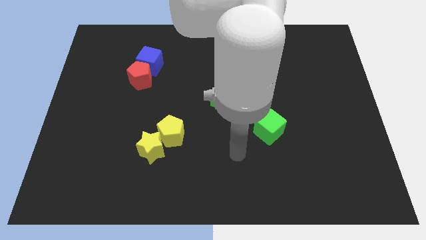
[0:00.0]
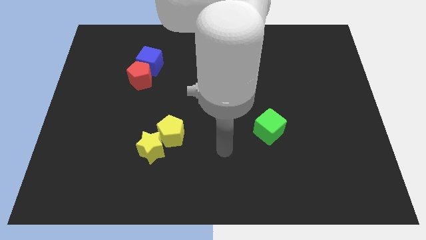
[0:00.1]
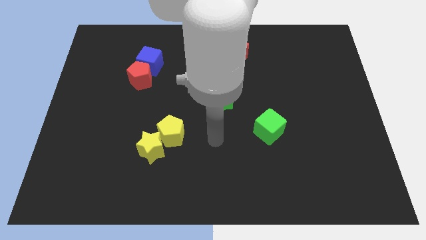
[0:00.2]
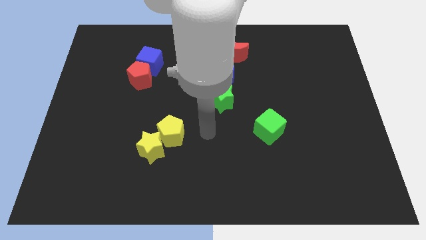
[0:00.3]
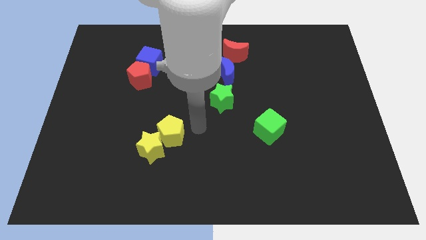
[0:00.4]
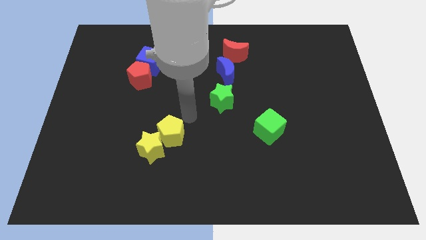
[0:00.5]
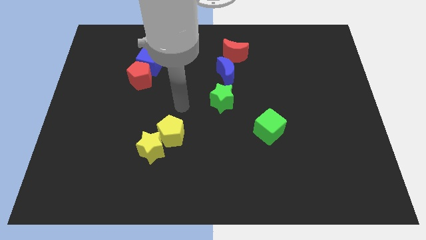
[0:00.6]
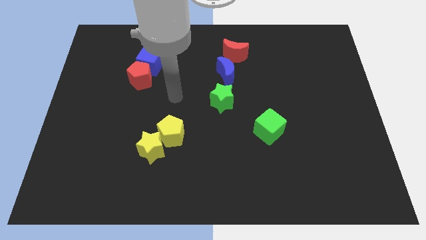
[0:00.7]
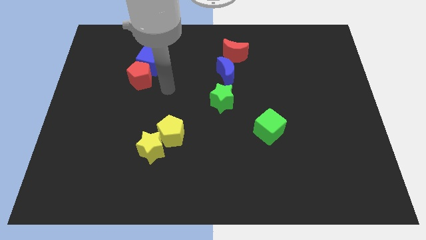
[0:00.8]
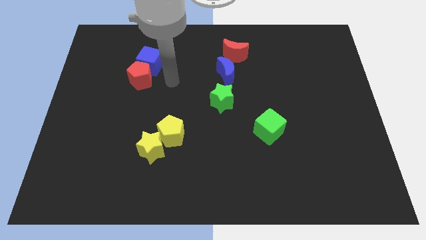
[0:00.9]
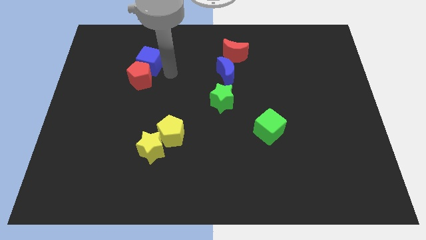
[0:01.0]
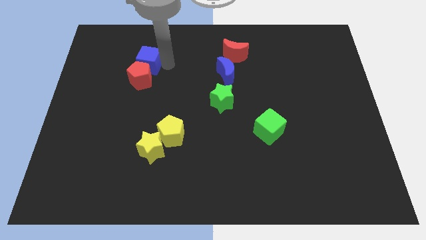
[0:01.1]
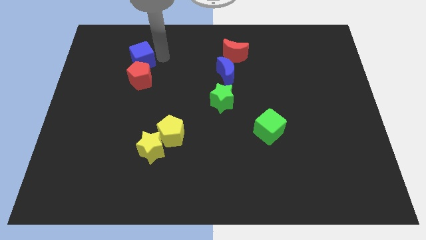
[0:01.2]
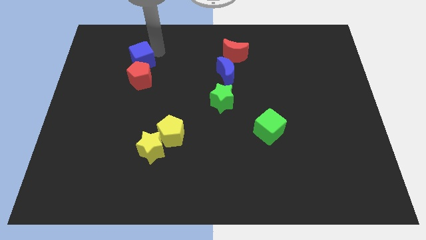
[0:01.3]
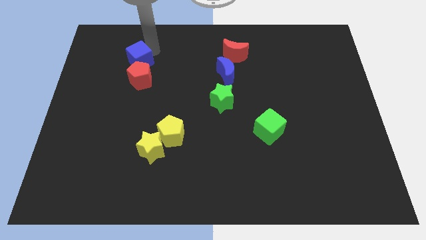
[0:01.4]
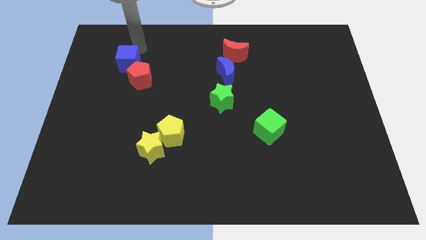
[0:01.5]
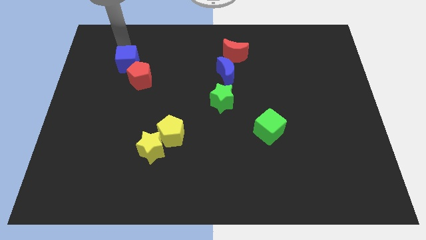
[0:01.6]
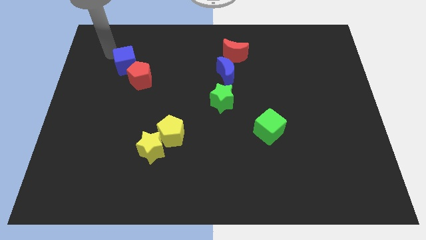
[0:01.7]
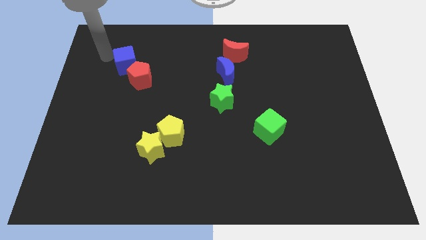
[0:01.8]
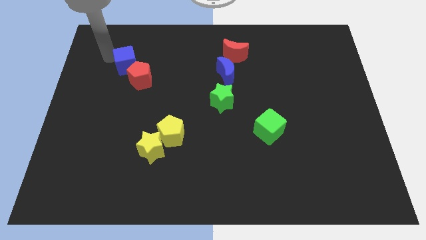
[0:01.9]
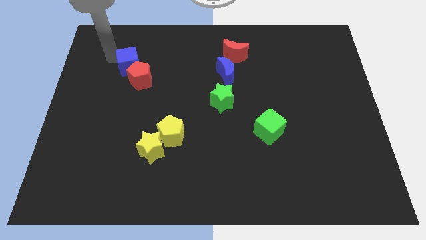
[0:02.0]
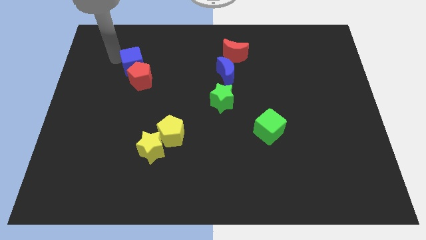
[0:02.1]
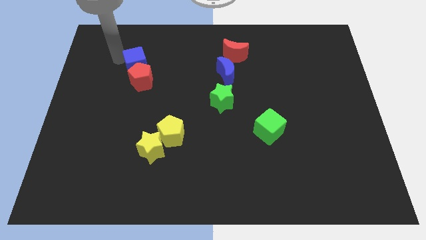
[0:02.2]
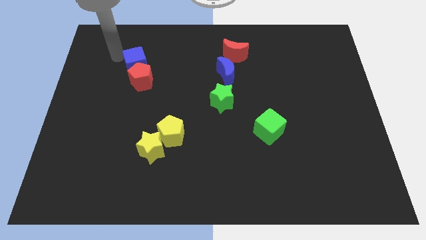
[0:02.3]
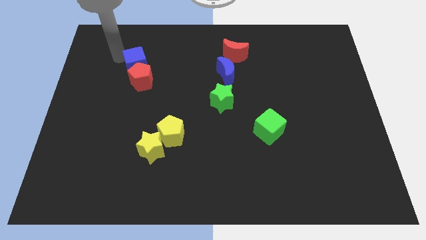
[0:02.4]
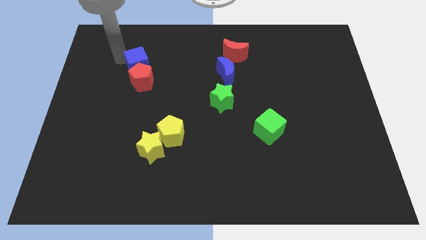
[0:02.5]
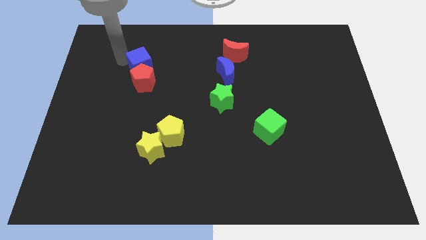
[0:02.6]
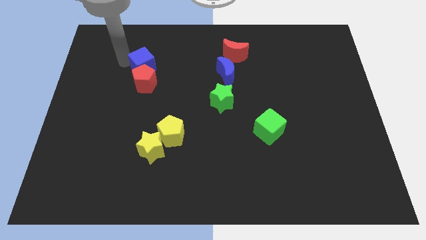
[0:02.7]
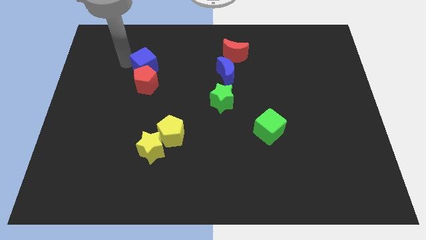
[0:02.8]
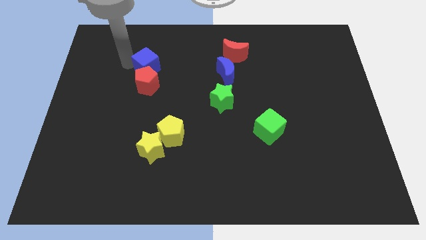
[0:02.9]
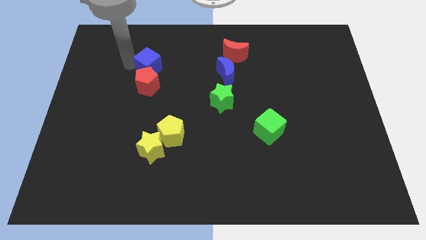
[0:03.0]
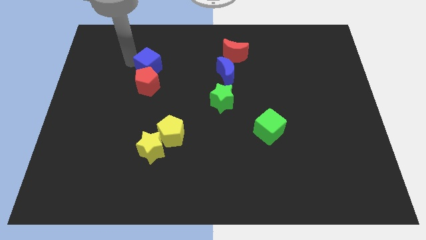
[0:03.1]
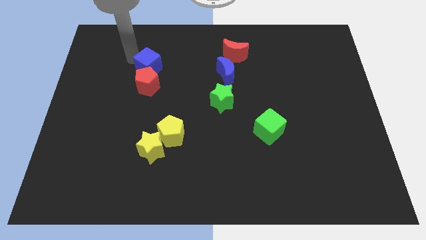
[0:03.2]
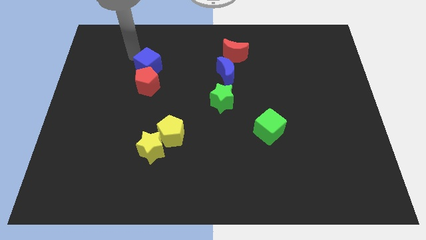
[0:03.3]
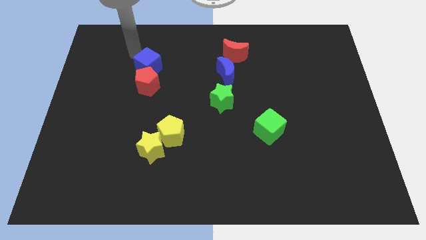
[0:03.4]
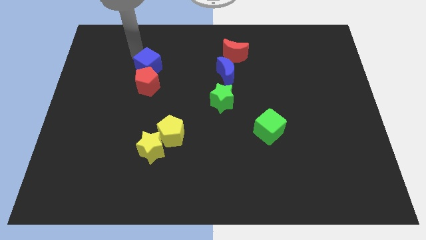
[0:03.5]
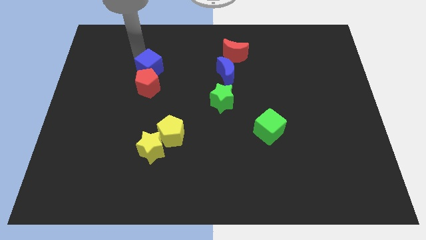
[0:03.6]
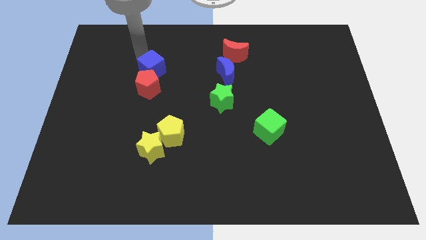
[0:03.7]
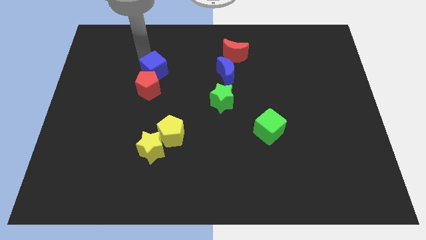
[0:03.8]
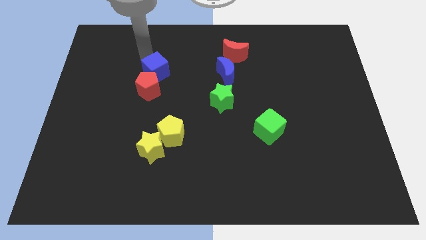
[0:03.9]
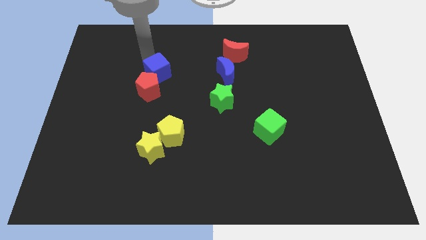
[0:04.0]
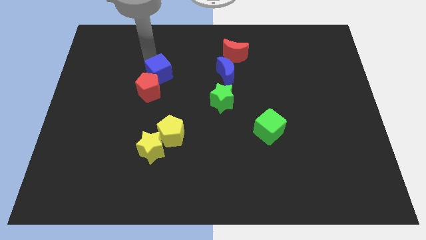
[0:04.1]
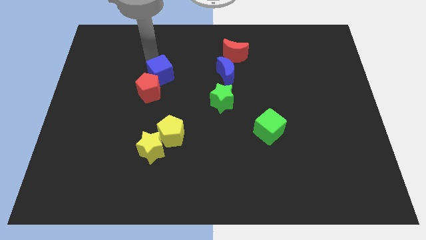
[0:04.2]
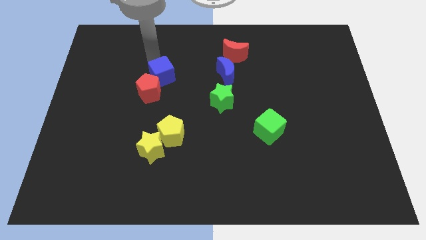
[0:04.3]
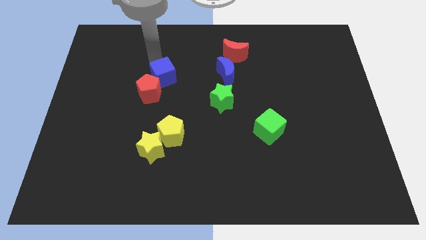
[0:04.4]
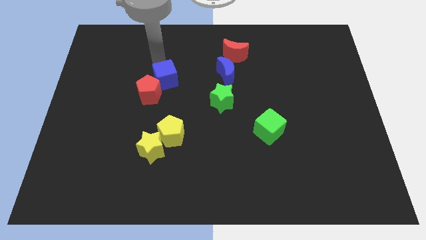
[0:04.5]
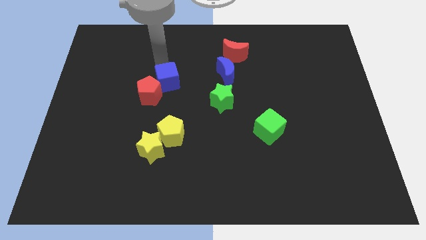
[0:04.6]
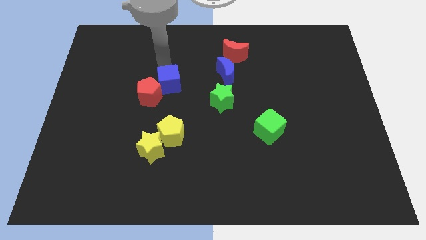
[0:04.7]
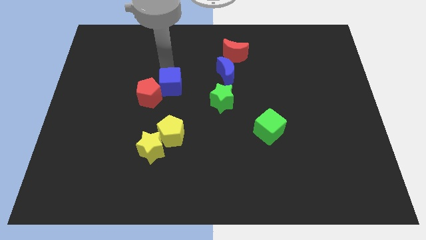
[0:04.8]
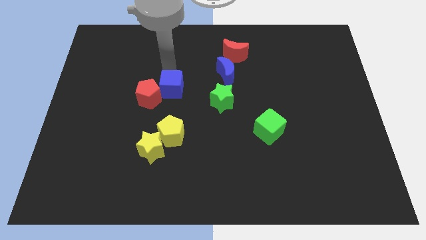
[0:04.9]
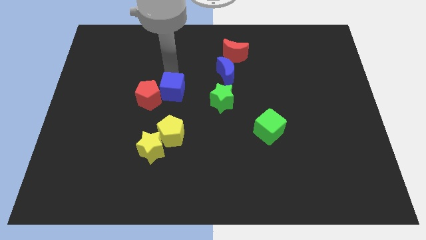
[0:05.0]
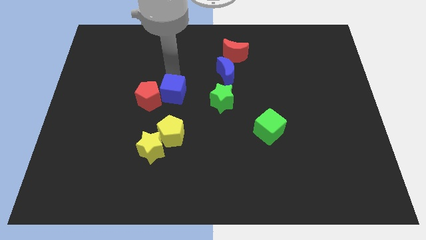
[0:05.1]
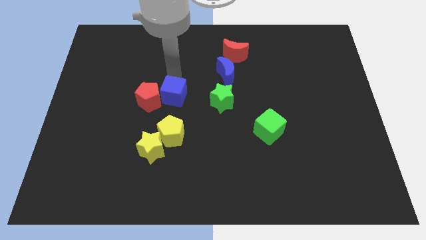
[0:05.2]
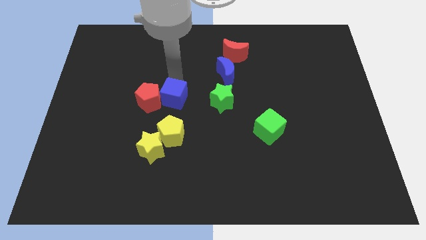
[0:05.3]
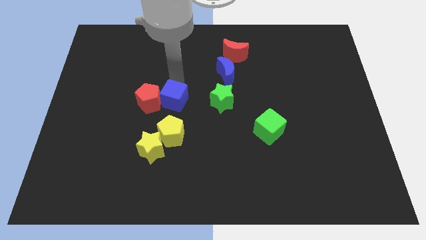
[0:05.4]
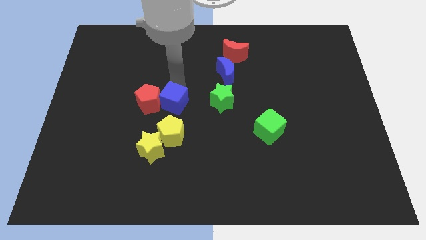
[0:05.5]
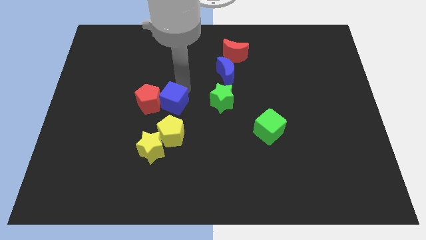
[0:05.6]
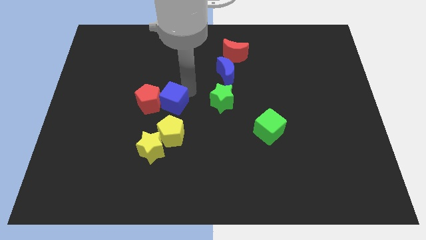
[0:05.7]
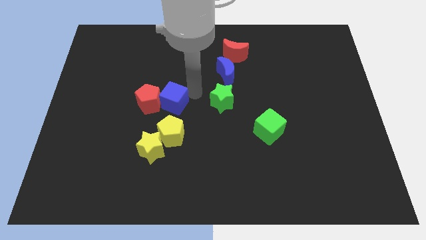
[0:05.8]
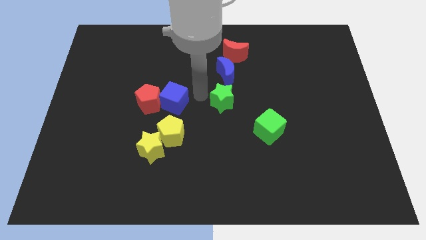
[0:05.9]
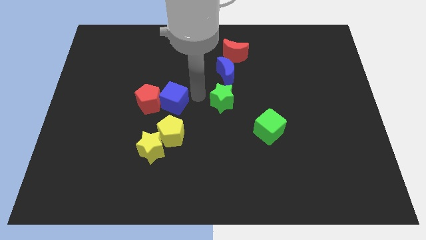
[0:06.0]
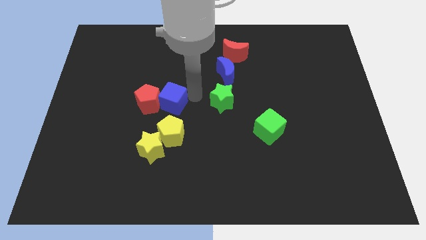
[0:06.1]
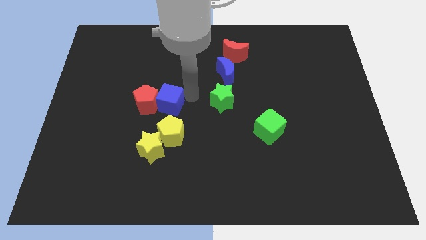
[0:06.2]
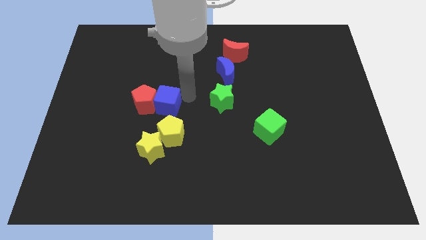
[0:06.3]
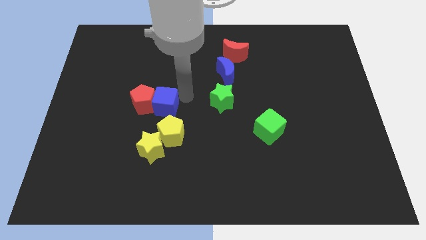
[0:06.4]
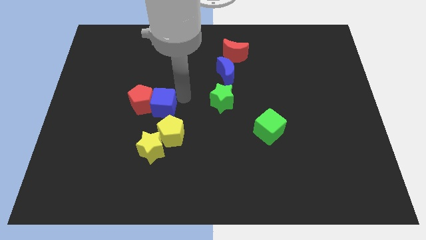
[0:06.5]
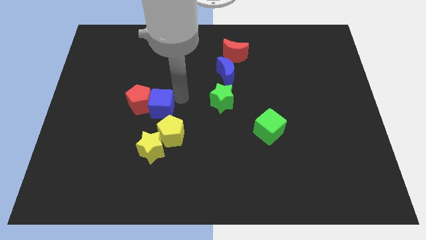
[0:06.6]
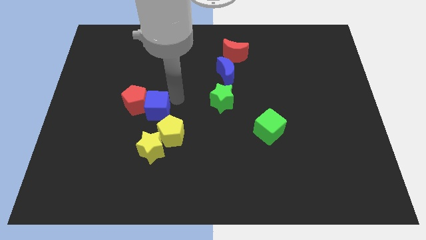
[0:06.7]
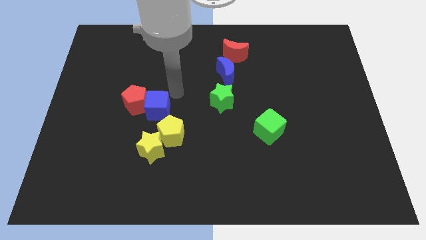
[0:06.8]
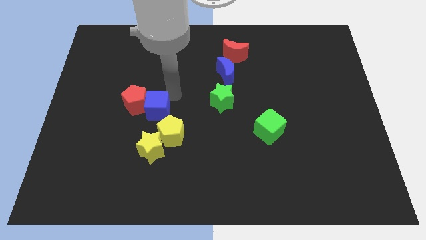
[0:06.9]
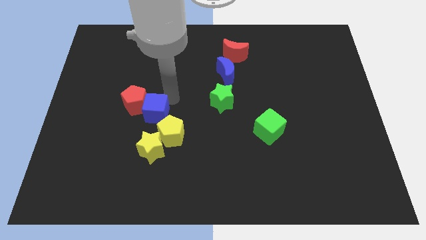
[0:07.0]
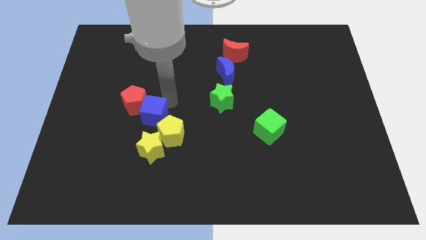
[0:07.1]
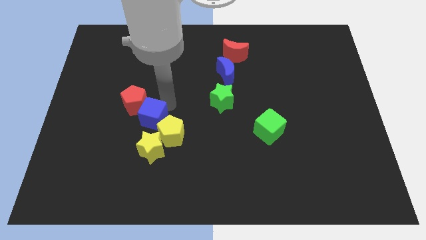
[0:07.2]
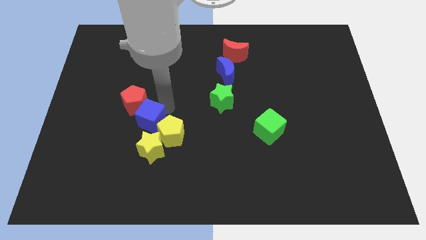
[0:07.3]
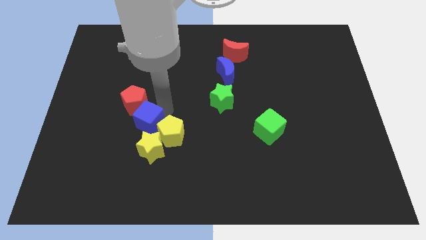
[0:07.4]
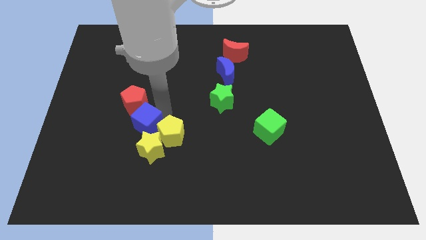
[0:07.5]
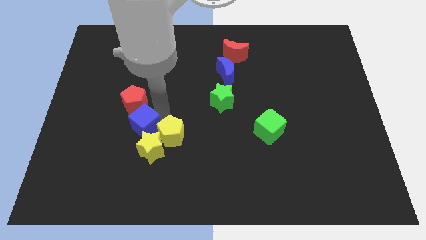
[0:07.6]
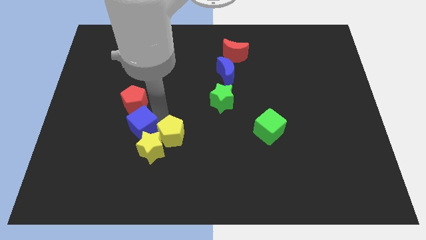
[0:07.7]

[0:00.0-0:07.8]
push the blue cube downwards
